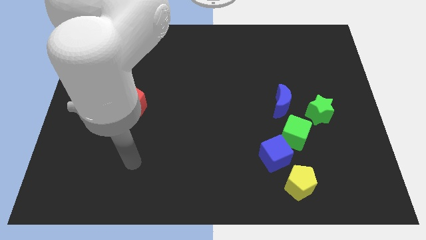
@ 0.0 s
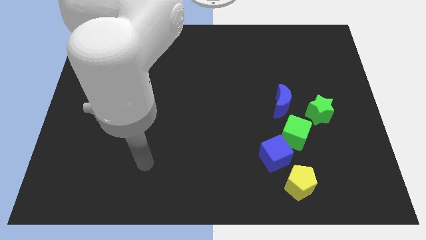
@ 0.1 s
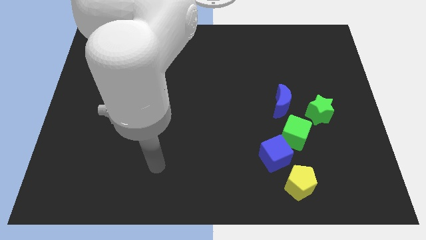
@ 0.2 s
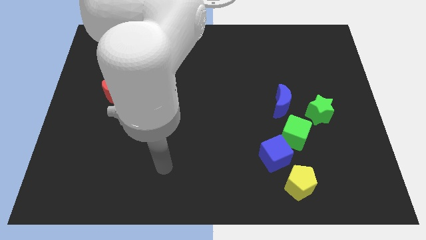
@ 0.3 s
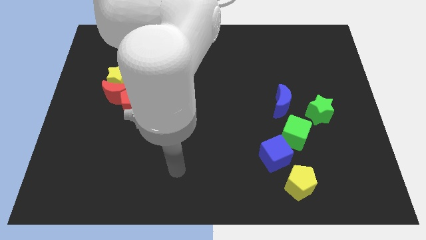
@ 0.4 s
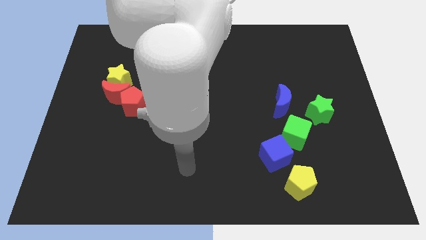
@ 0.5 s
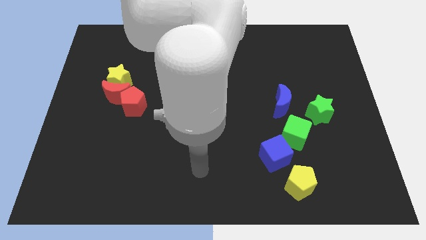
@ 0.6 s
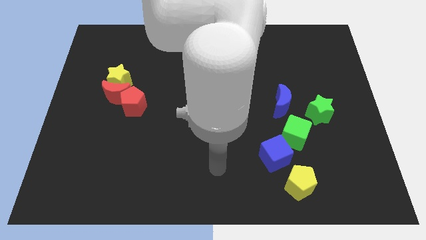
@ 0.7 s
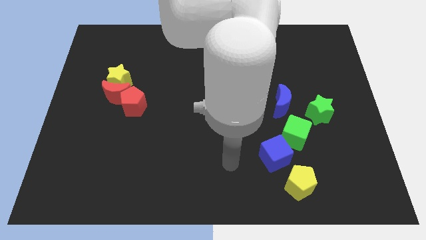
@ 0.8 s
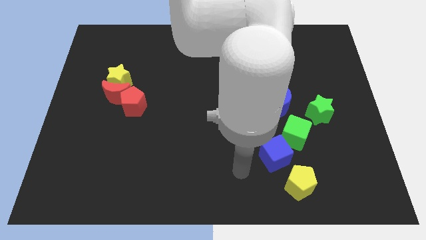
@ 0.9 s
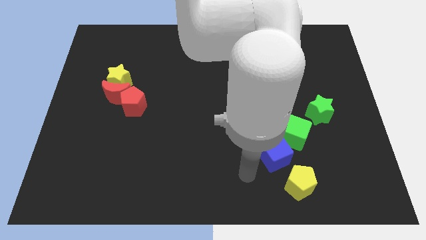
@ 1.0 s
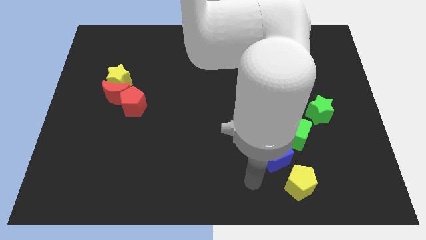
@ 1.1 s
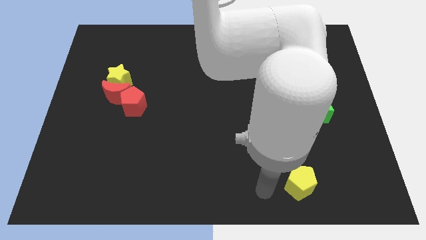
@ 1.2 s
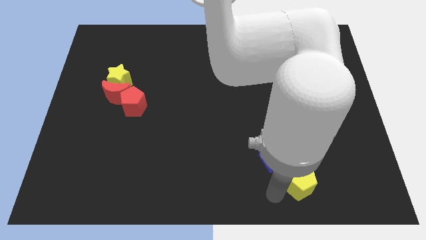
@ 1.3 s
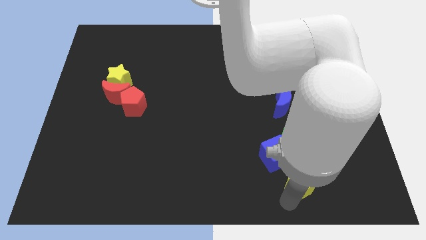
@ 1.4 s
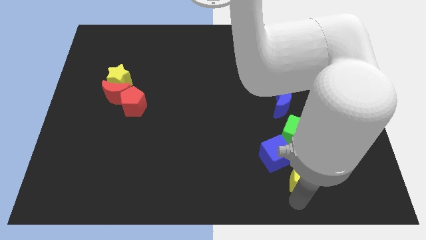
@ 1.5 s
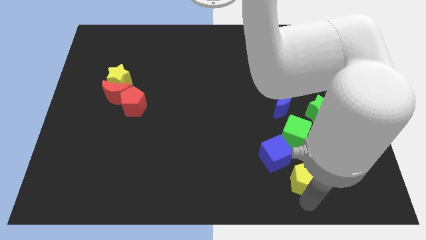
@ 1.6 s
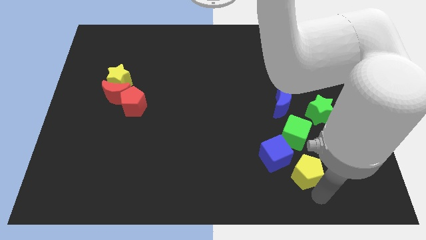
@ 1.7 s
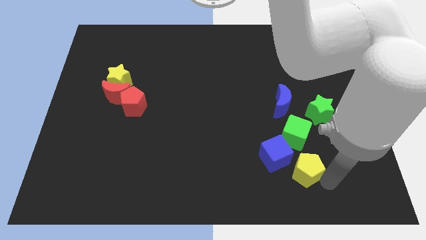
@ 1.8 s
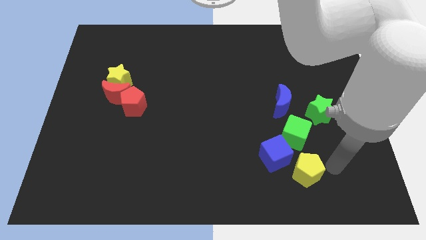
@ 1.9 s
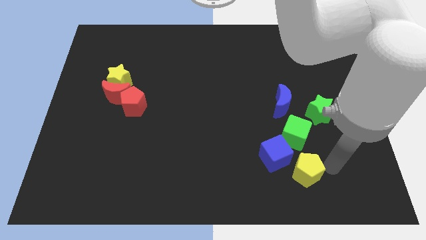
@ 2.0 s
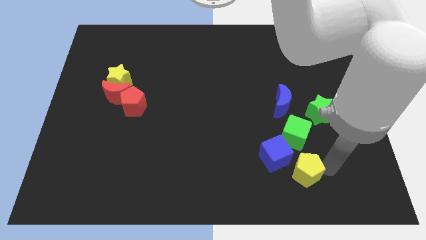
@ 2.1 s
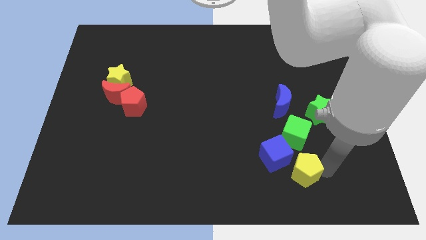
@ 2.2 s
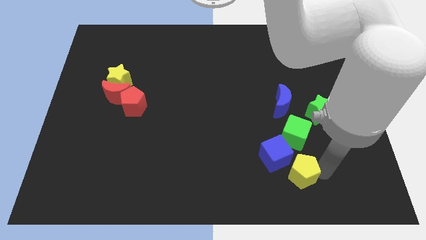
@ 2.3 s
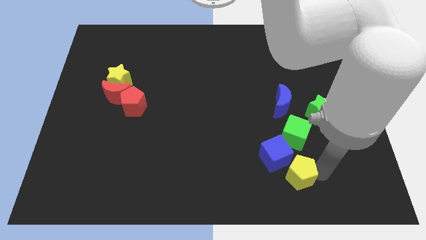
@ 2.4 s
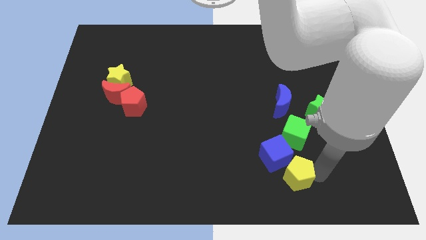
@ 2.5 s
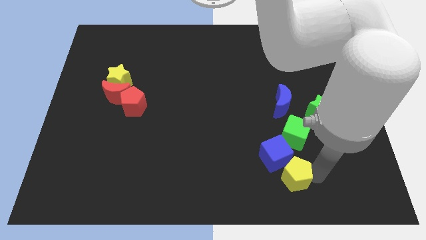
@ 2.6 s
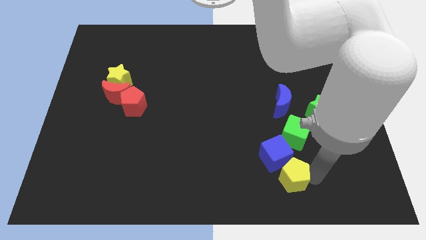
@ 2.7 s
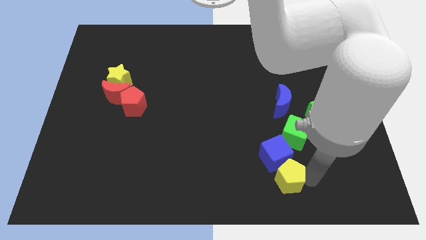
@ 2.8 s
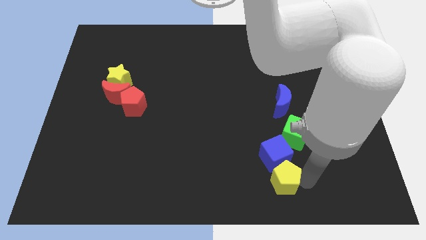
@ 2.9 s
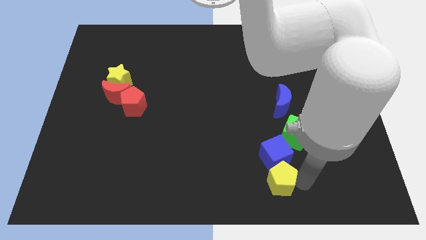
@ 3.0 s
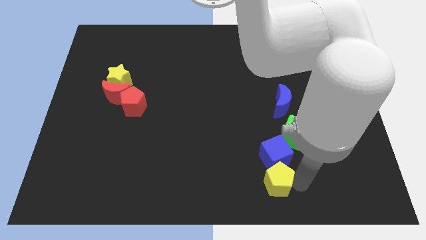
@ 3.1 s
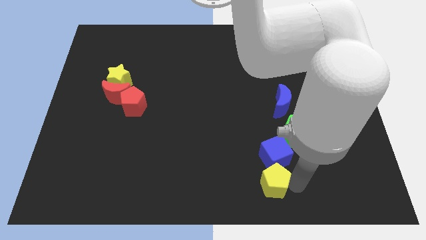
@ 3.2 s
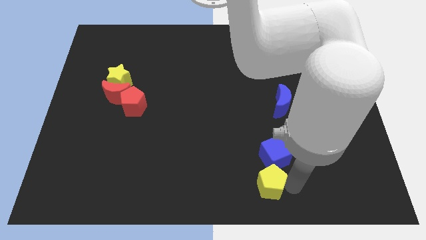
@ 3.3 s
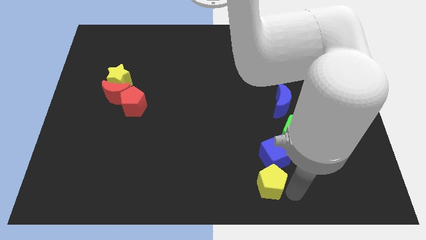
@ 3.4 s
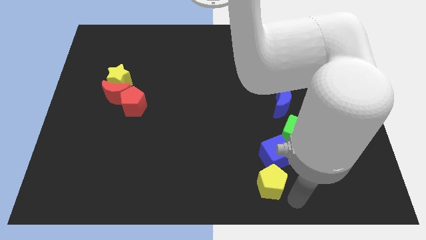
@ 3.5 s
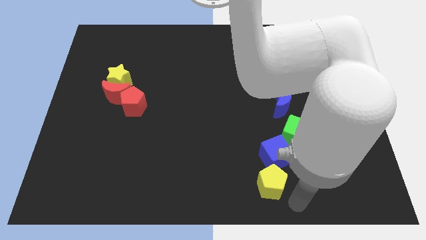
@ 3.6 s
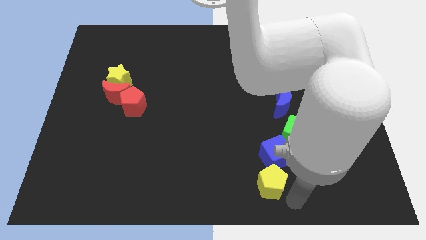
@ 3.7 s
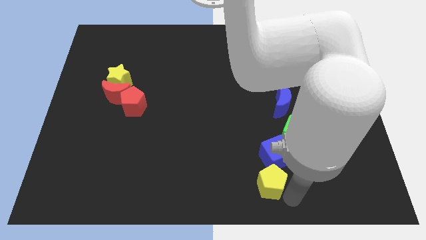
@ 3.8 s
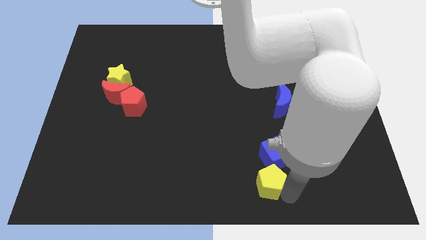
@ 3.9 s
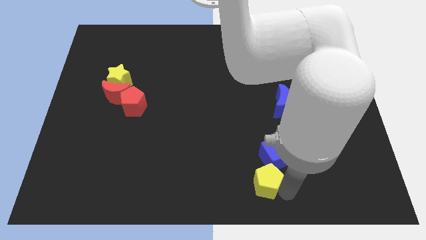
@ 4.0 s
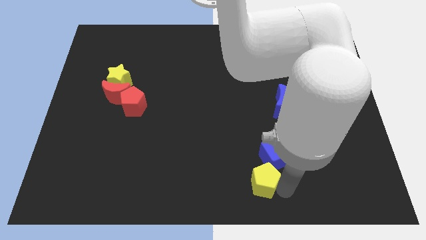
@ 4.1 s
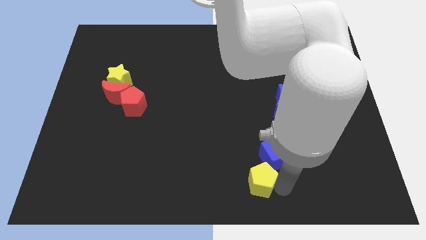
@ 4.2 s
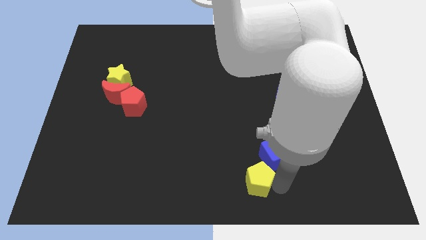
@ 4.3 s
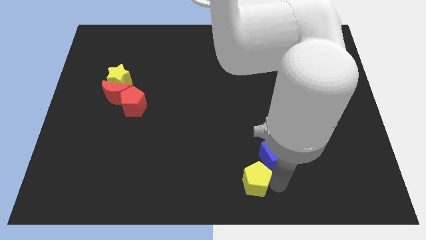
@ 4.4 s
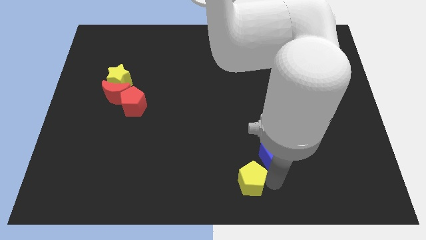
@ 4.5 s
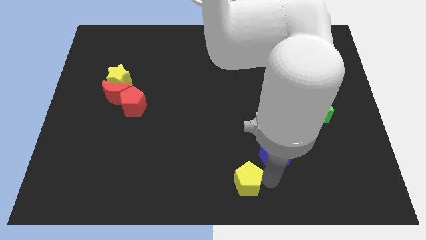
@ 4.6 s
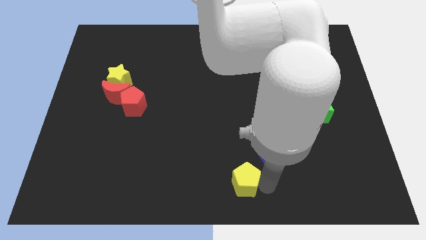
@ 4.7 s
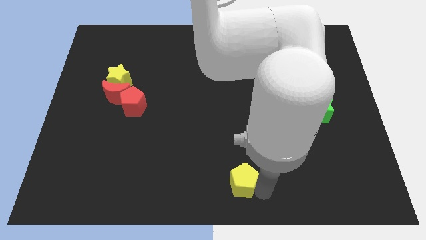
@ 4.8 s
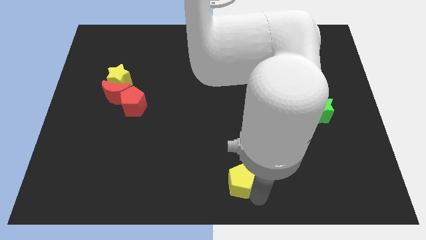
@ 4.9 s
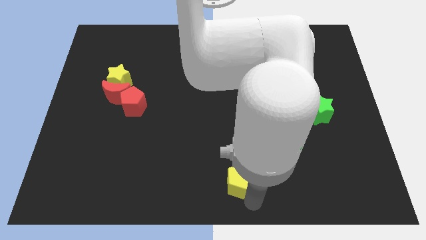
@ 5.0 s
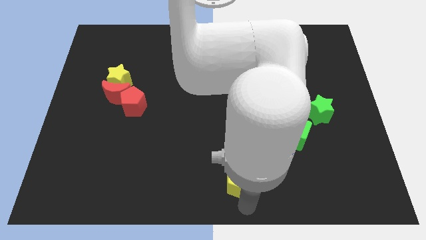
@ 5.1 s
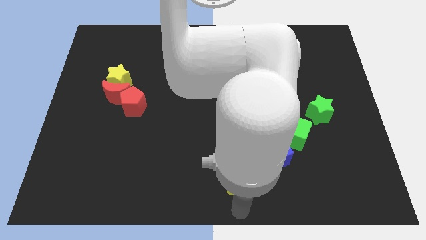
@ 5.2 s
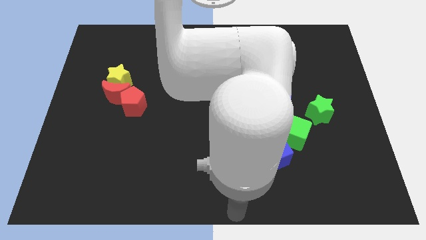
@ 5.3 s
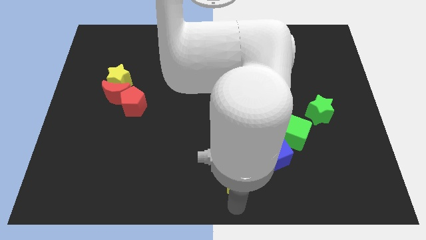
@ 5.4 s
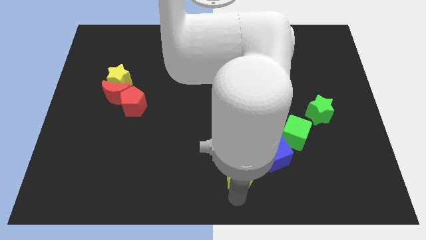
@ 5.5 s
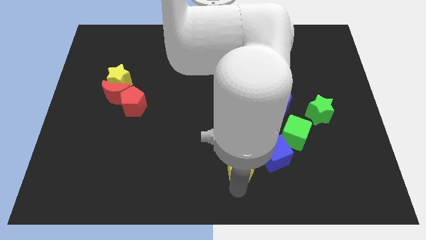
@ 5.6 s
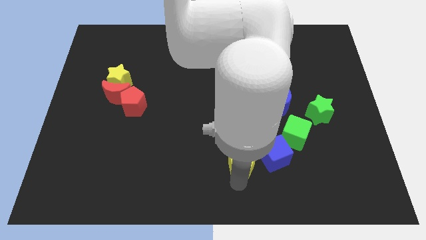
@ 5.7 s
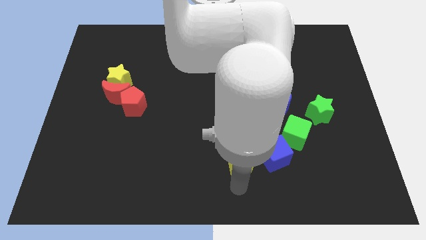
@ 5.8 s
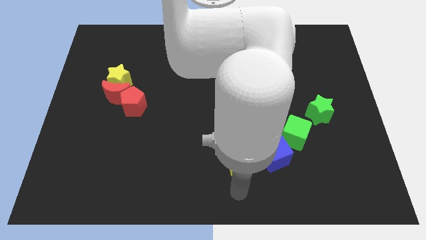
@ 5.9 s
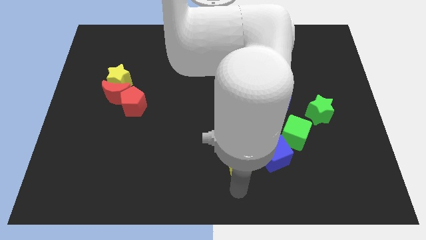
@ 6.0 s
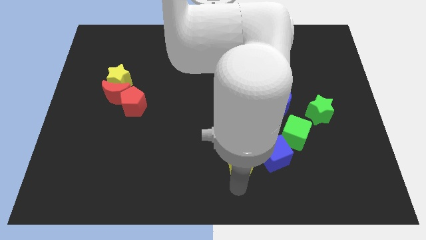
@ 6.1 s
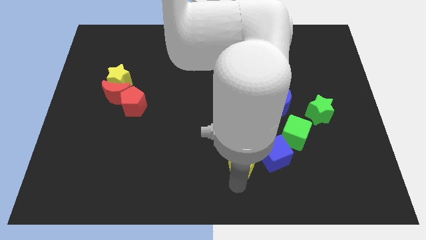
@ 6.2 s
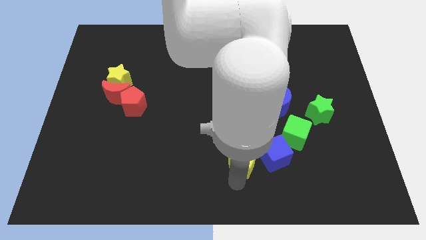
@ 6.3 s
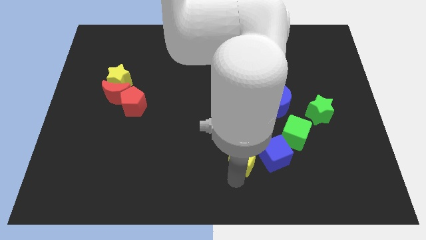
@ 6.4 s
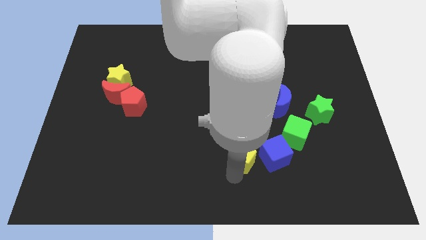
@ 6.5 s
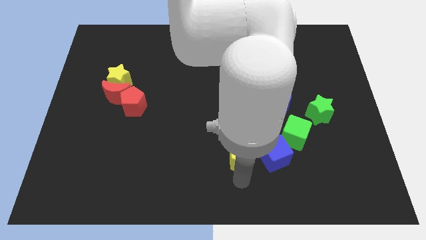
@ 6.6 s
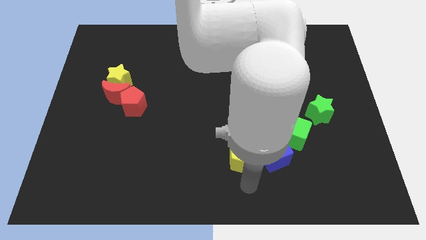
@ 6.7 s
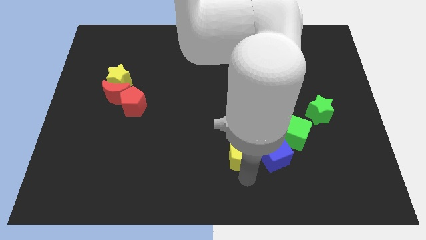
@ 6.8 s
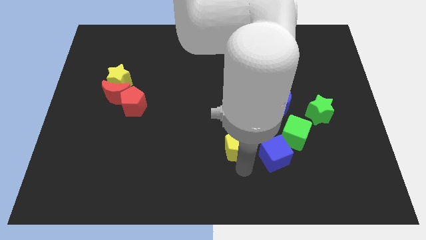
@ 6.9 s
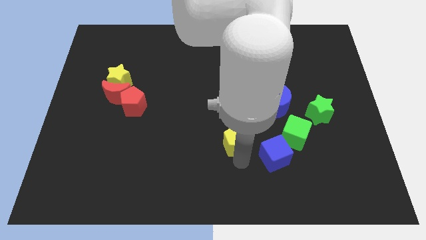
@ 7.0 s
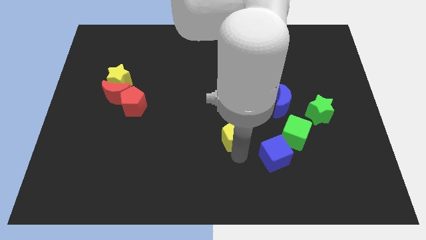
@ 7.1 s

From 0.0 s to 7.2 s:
put the yellow pentagon to the center of the board
